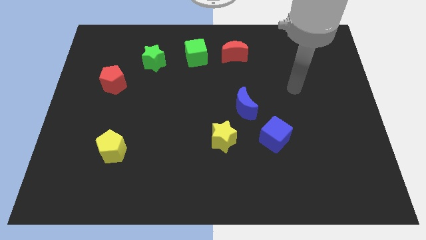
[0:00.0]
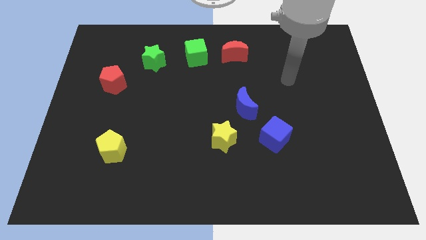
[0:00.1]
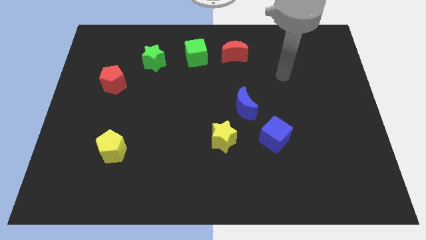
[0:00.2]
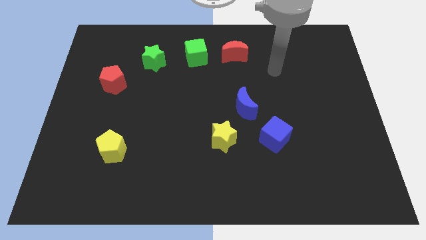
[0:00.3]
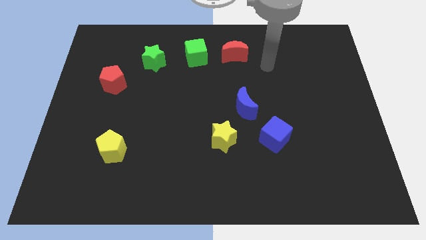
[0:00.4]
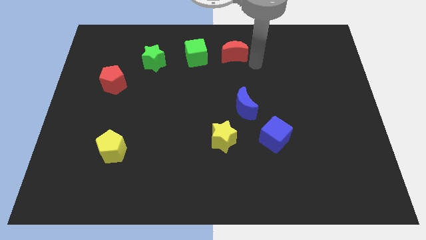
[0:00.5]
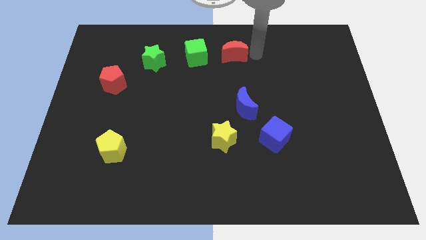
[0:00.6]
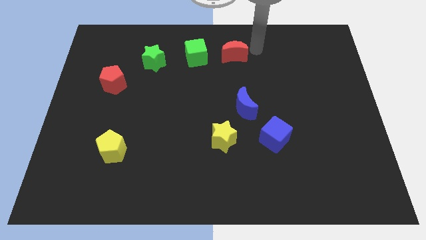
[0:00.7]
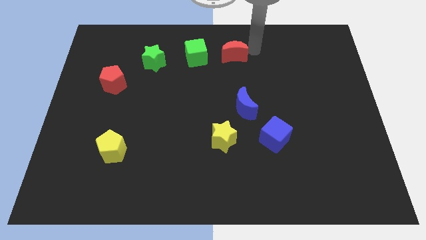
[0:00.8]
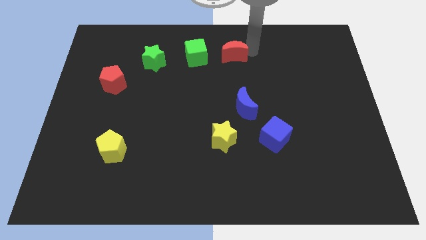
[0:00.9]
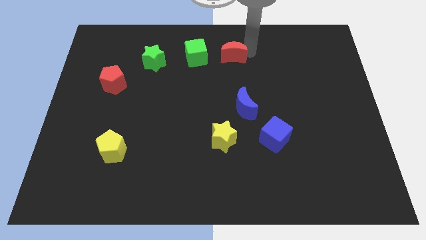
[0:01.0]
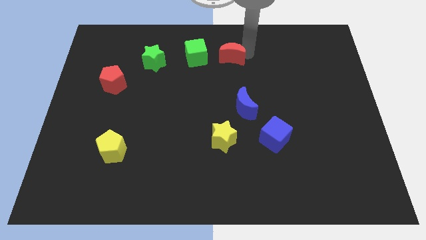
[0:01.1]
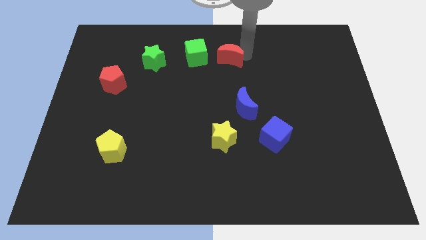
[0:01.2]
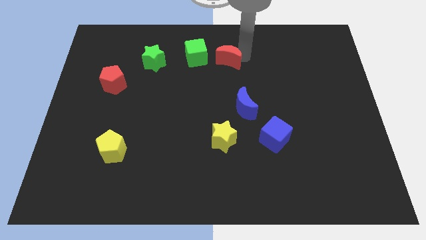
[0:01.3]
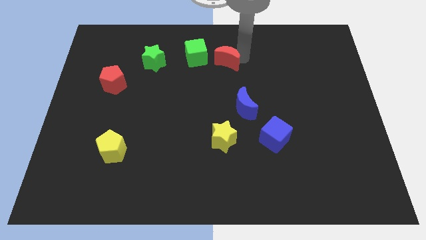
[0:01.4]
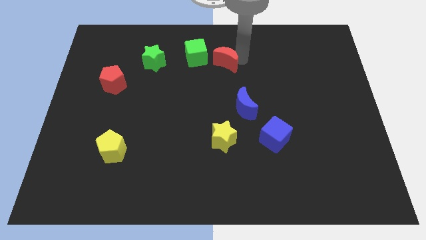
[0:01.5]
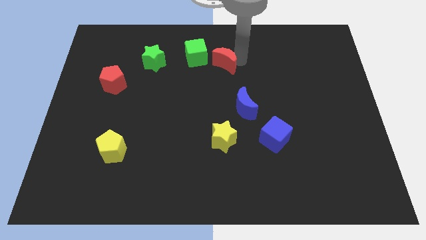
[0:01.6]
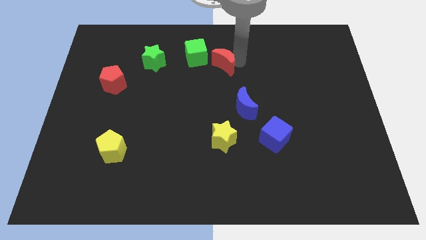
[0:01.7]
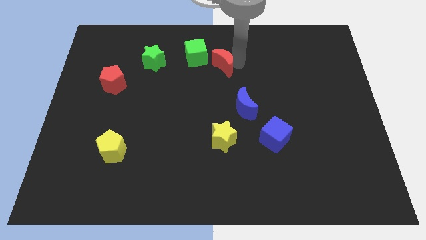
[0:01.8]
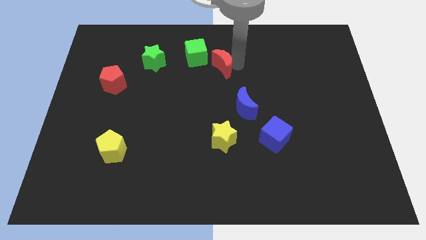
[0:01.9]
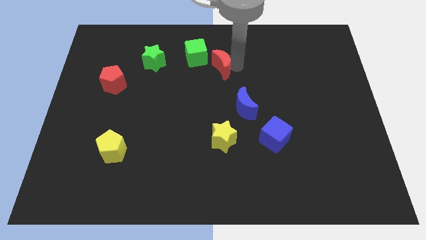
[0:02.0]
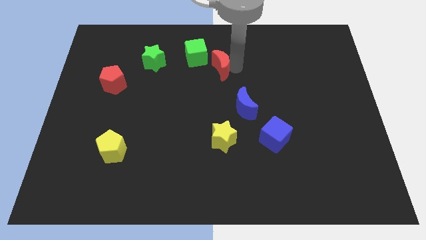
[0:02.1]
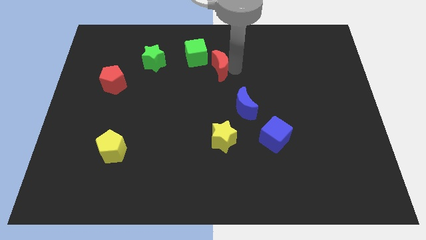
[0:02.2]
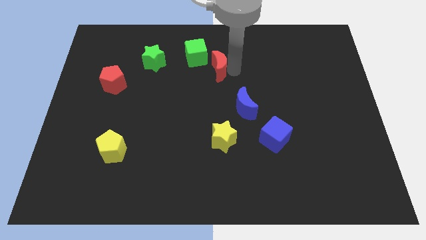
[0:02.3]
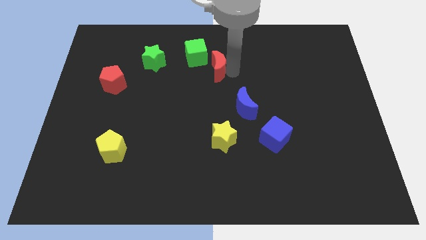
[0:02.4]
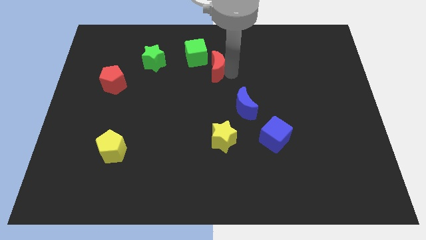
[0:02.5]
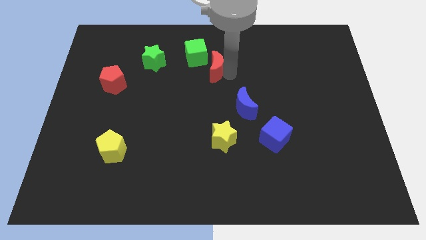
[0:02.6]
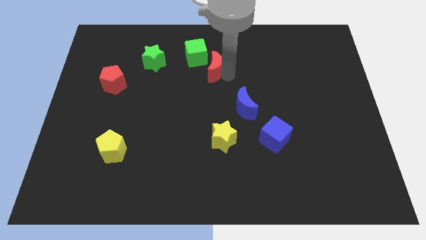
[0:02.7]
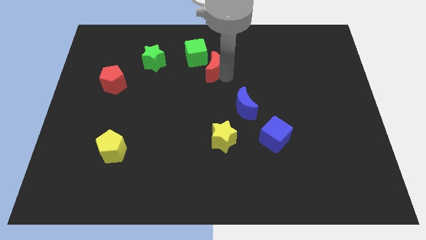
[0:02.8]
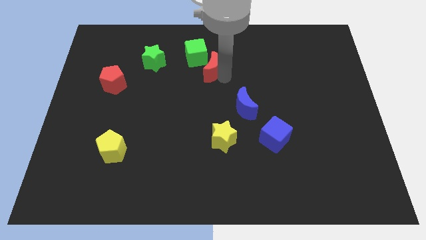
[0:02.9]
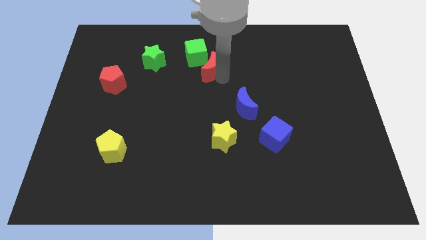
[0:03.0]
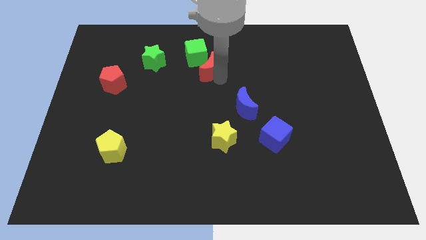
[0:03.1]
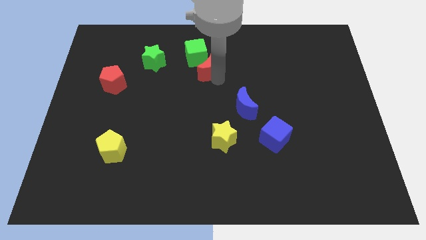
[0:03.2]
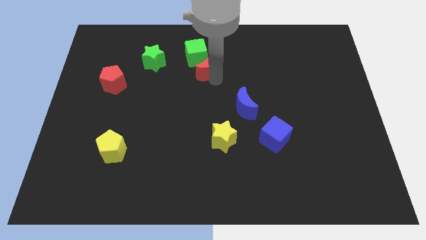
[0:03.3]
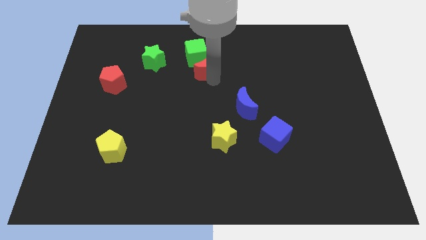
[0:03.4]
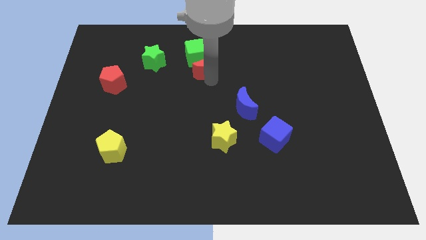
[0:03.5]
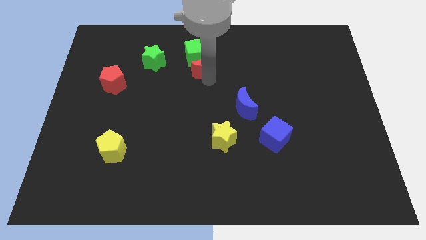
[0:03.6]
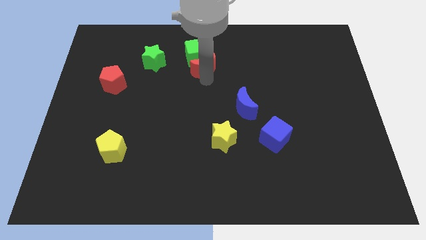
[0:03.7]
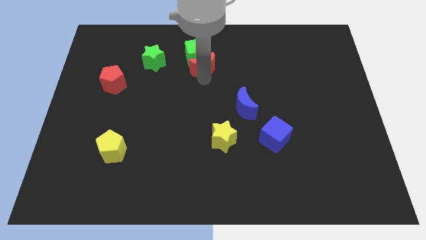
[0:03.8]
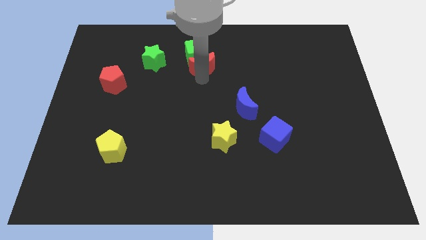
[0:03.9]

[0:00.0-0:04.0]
move the red moon diagonally down and to the left of the green cube

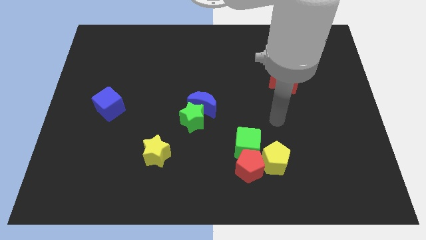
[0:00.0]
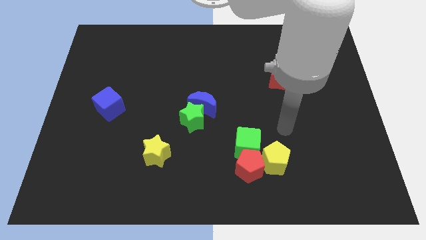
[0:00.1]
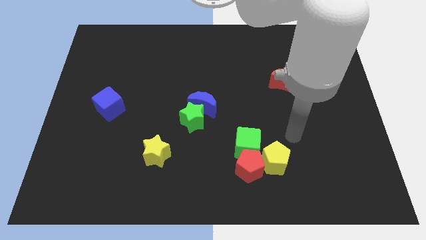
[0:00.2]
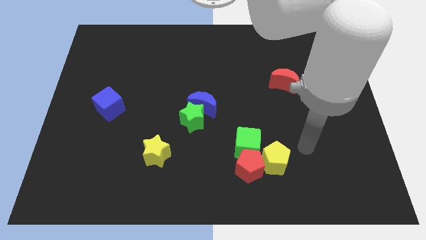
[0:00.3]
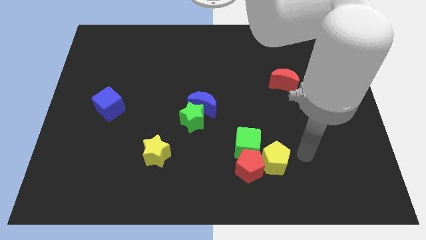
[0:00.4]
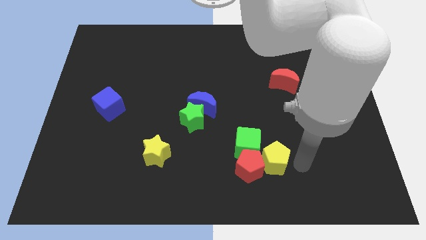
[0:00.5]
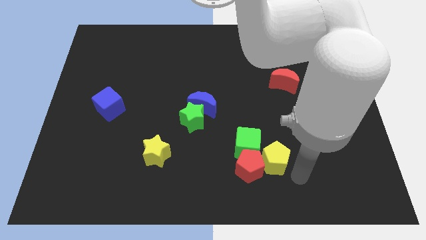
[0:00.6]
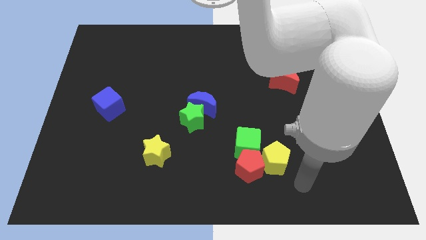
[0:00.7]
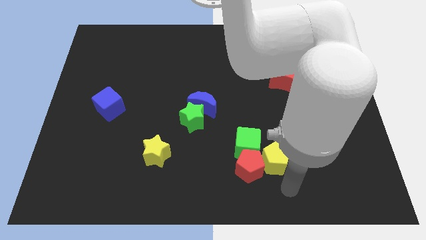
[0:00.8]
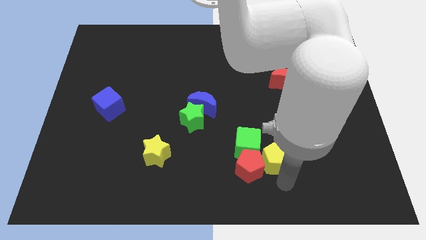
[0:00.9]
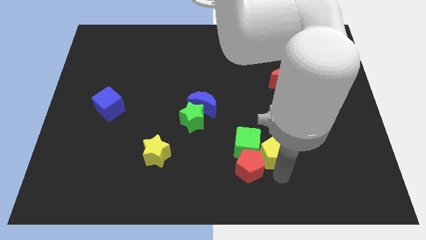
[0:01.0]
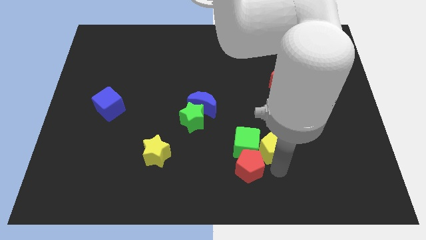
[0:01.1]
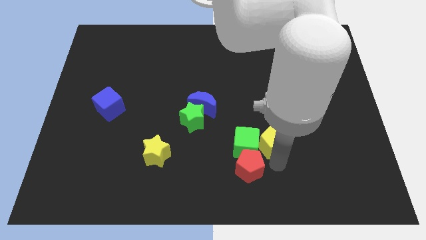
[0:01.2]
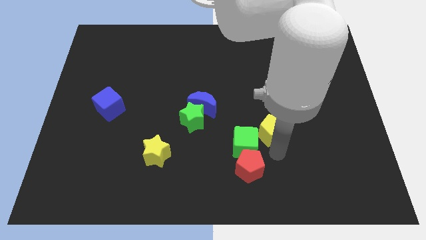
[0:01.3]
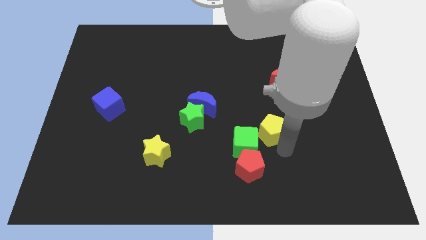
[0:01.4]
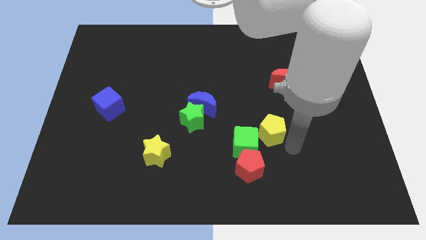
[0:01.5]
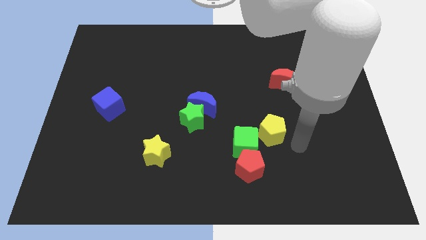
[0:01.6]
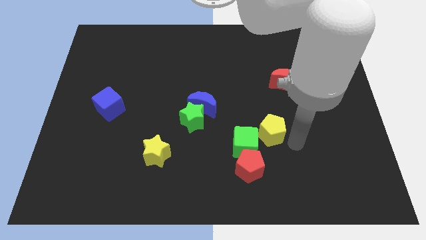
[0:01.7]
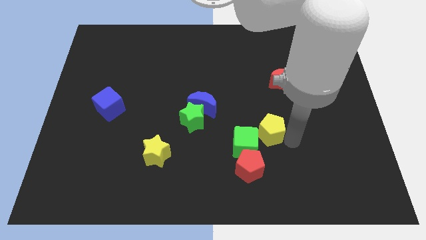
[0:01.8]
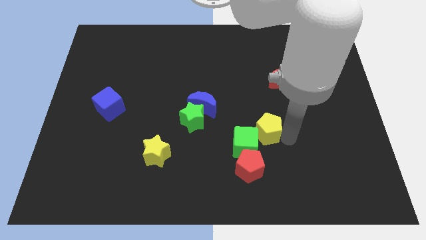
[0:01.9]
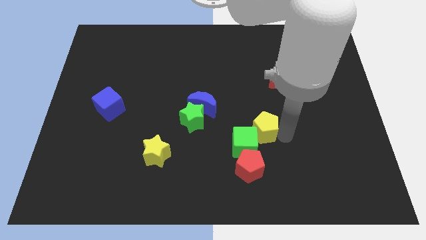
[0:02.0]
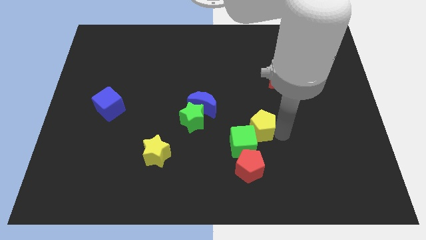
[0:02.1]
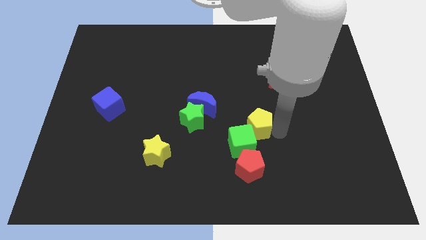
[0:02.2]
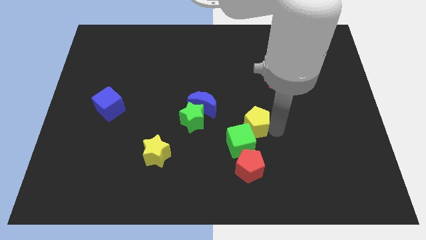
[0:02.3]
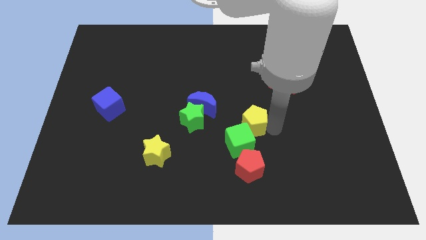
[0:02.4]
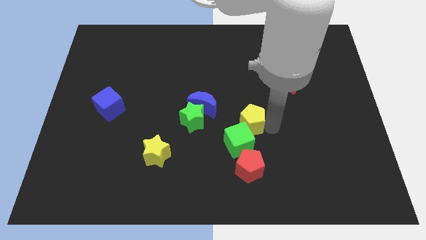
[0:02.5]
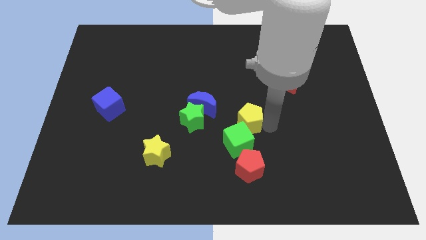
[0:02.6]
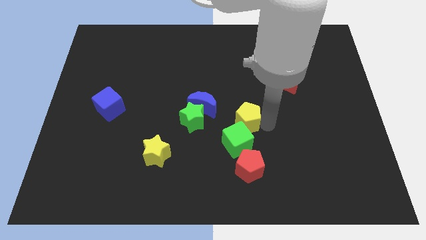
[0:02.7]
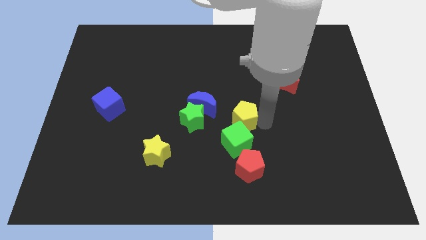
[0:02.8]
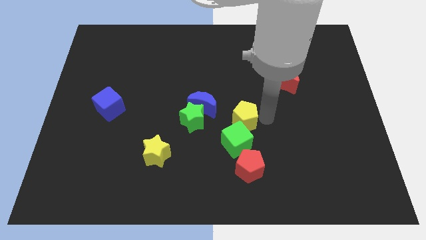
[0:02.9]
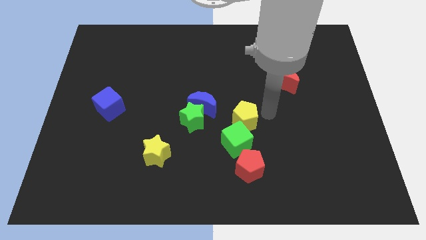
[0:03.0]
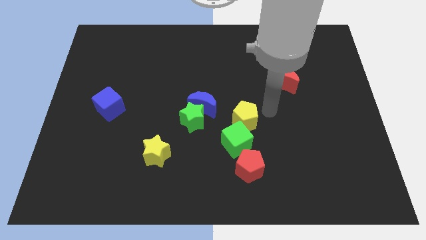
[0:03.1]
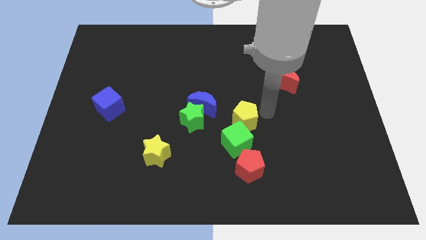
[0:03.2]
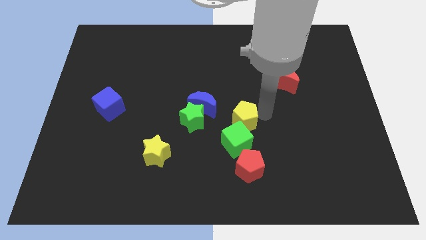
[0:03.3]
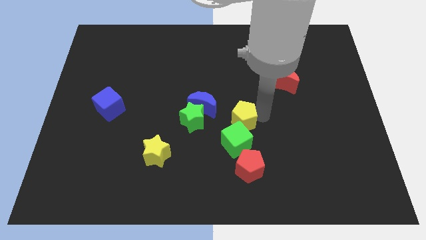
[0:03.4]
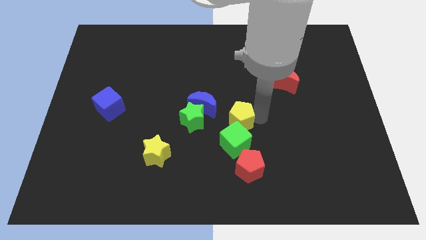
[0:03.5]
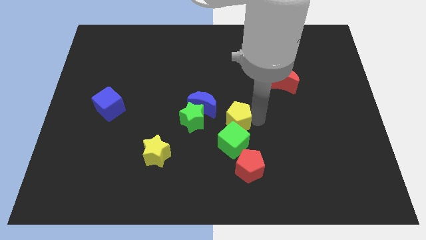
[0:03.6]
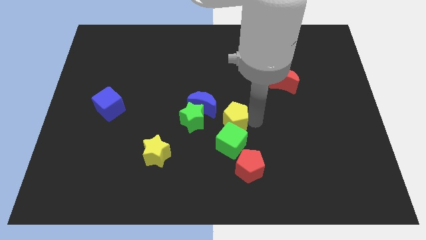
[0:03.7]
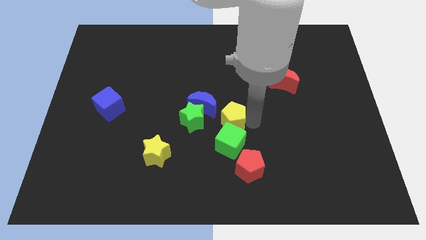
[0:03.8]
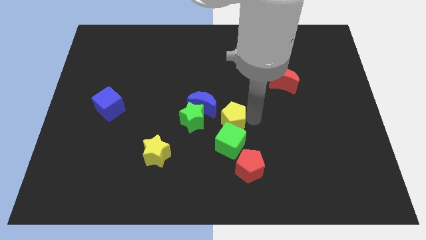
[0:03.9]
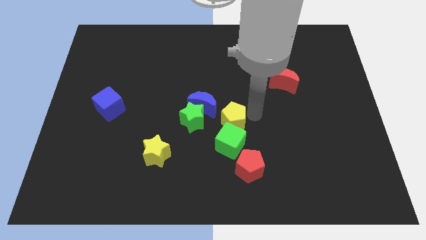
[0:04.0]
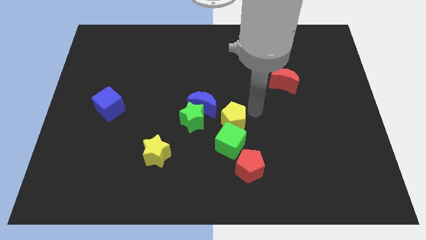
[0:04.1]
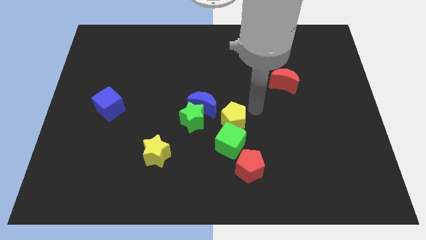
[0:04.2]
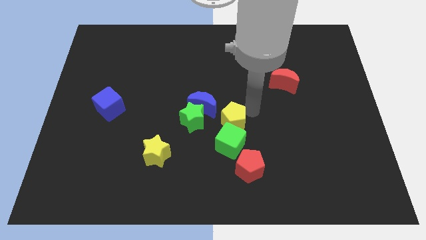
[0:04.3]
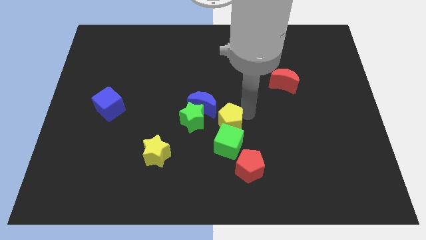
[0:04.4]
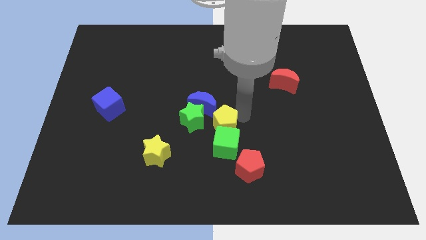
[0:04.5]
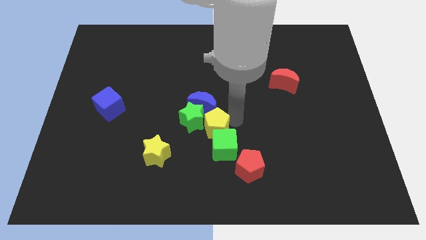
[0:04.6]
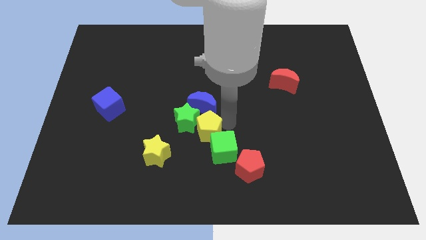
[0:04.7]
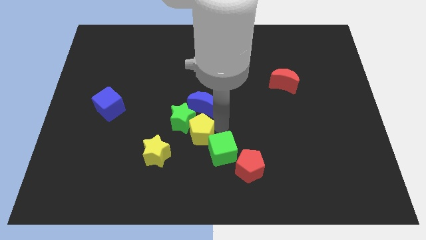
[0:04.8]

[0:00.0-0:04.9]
slide the yellow pentagon to the bottom left of the blue moon
